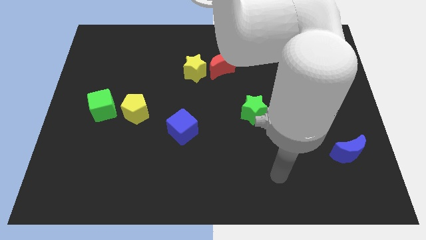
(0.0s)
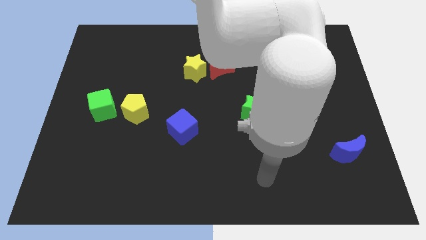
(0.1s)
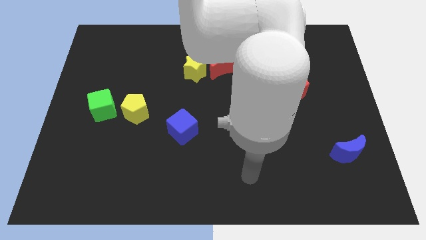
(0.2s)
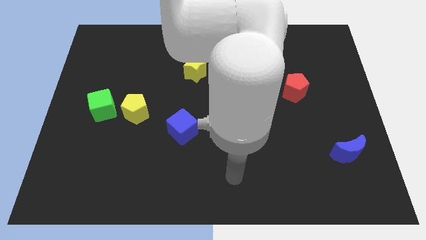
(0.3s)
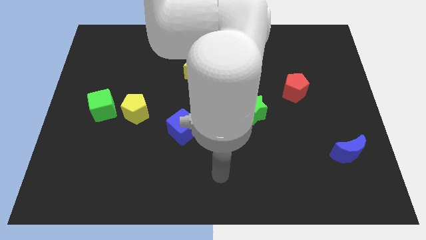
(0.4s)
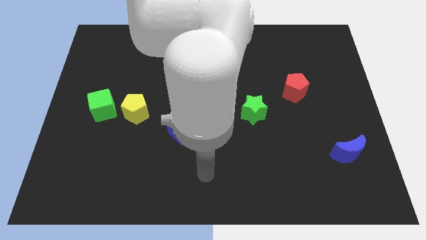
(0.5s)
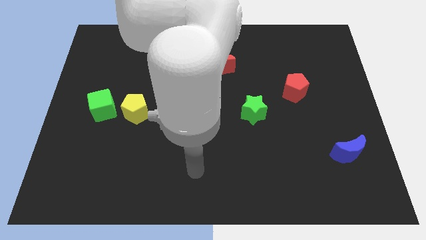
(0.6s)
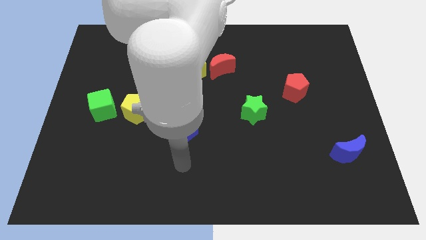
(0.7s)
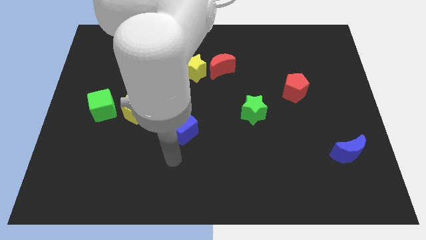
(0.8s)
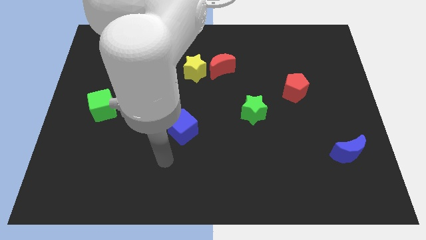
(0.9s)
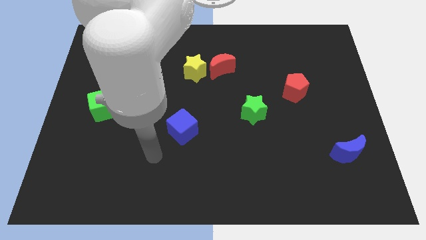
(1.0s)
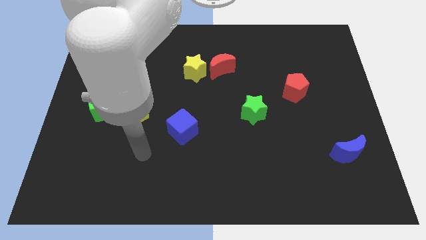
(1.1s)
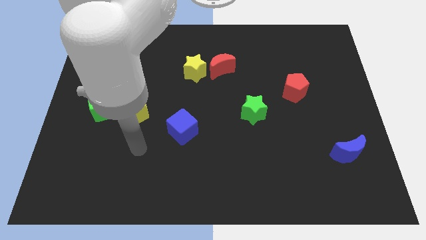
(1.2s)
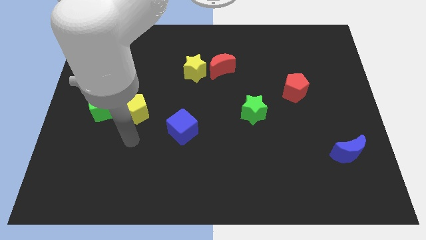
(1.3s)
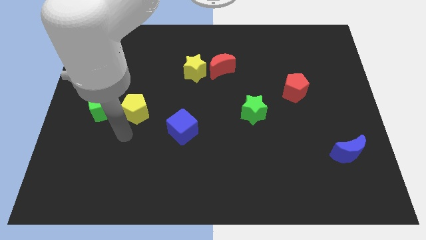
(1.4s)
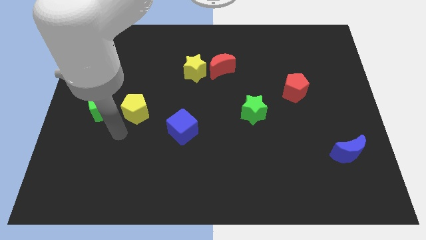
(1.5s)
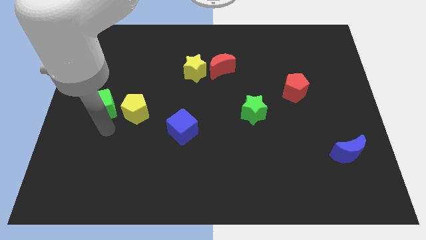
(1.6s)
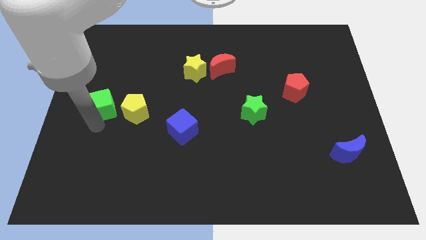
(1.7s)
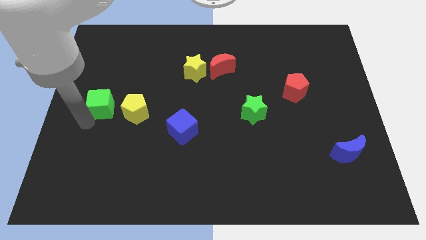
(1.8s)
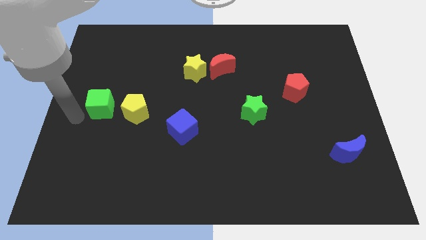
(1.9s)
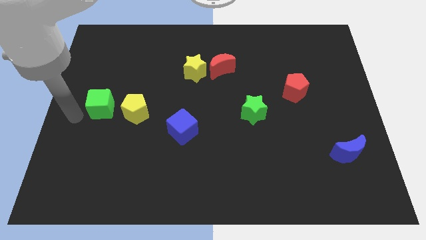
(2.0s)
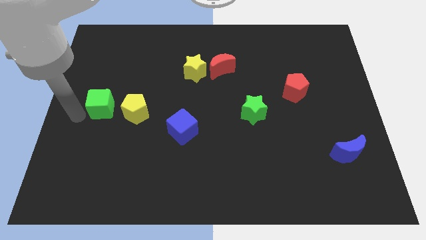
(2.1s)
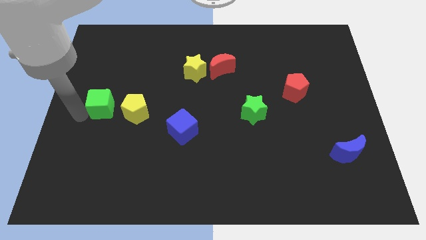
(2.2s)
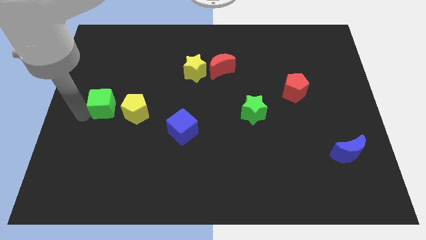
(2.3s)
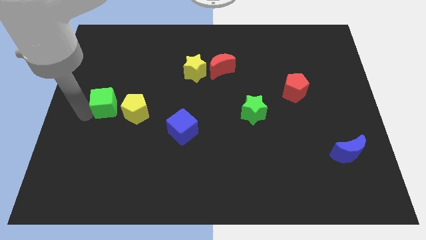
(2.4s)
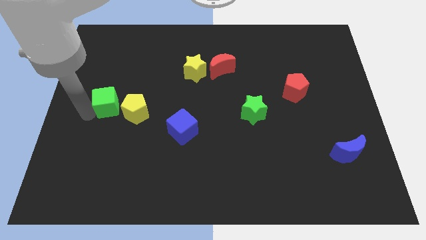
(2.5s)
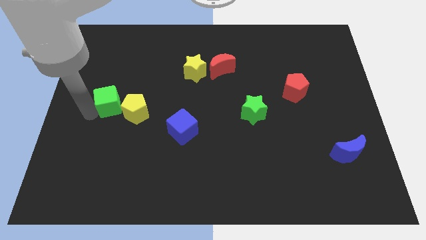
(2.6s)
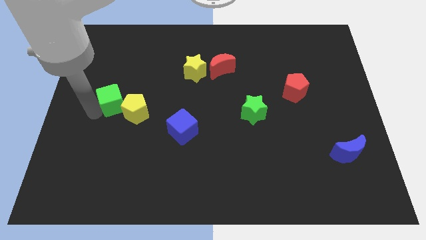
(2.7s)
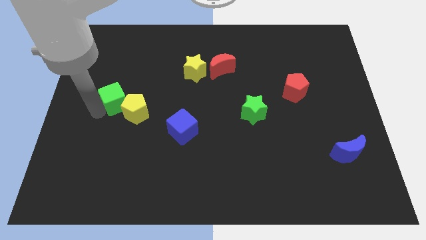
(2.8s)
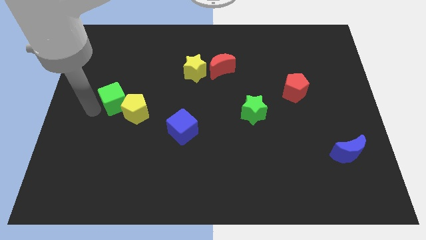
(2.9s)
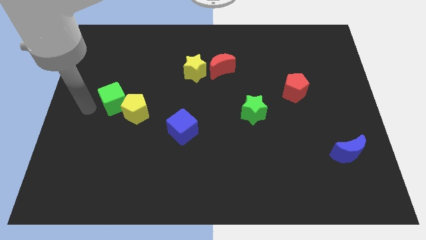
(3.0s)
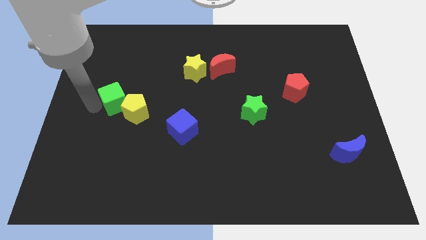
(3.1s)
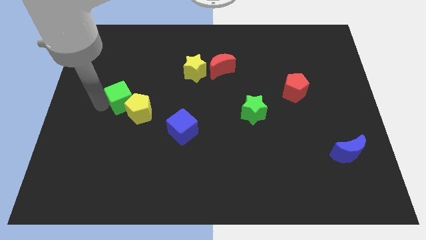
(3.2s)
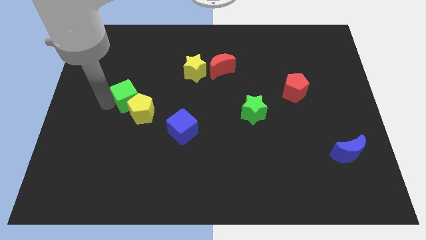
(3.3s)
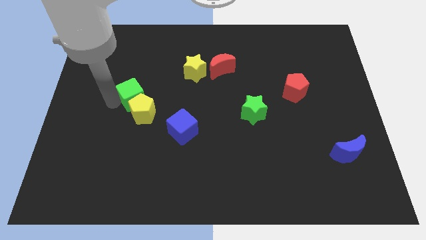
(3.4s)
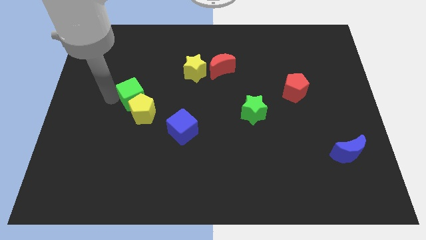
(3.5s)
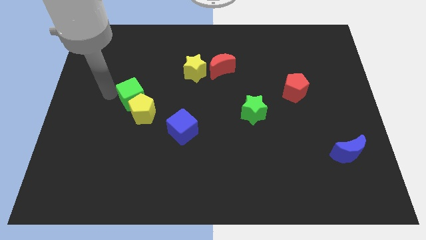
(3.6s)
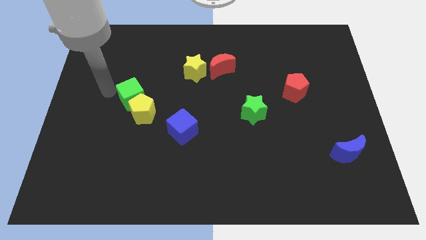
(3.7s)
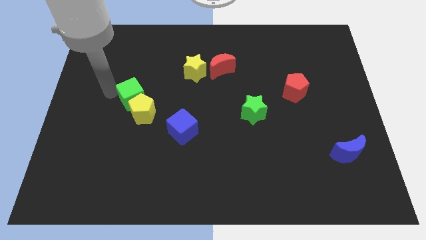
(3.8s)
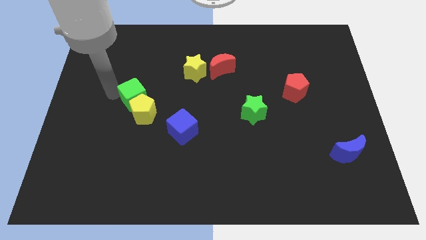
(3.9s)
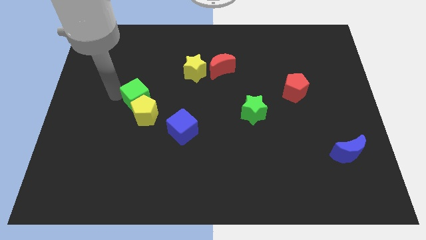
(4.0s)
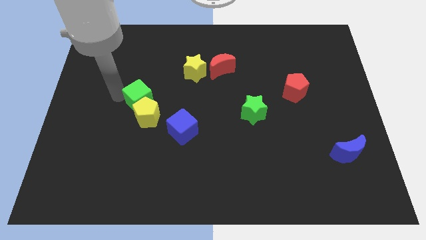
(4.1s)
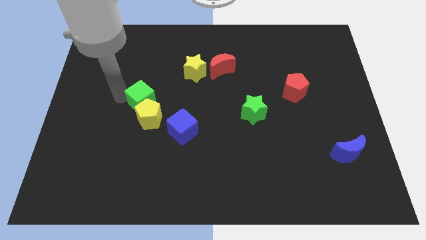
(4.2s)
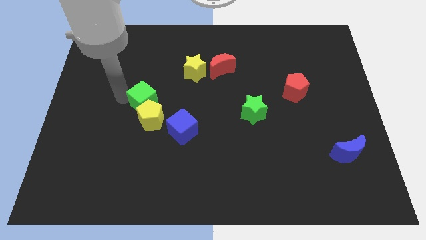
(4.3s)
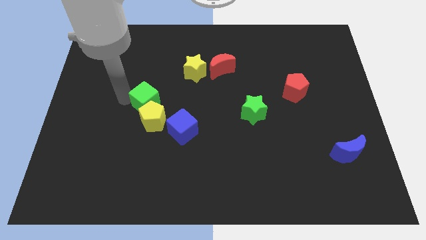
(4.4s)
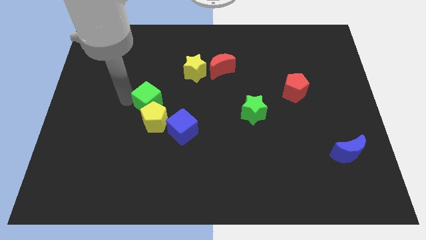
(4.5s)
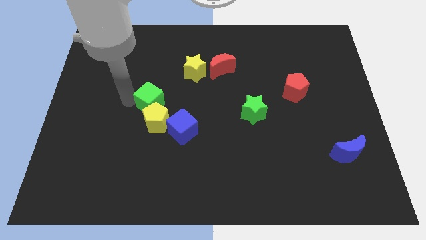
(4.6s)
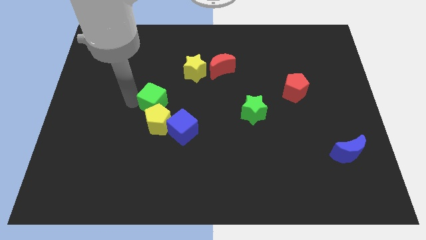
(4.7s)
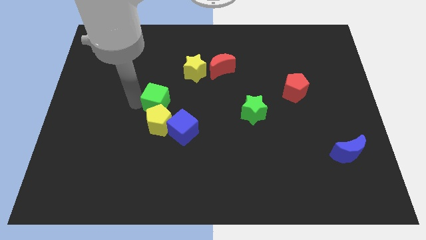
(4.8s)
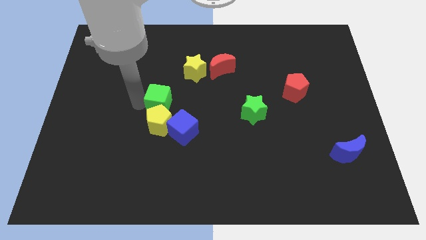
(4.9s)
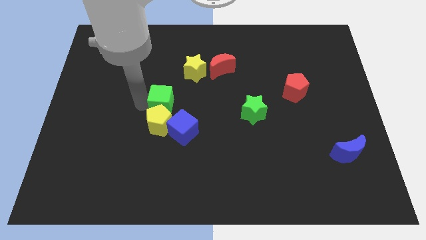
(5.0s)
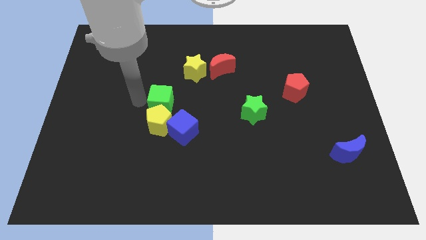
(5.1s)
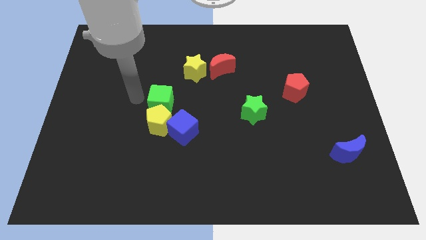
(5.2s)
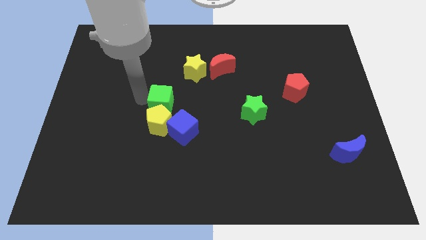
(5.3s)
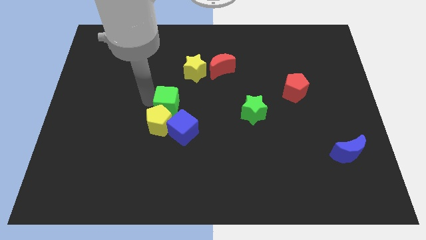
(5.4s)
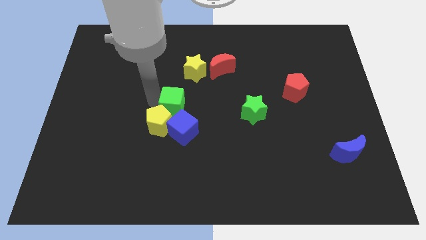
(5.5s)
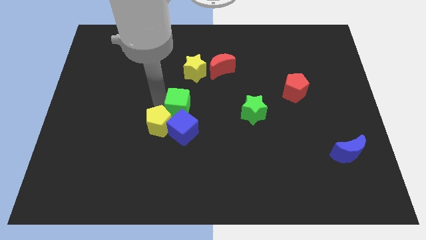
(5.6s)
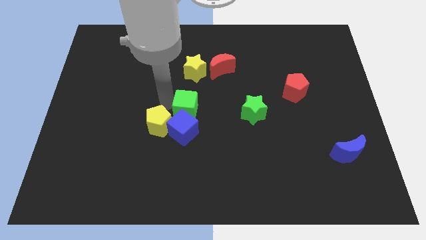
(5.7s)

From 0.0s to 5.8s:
slide the green cube to the top right of the blue cube

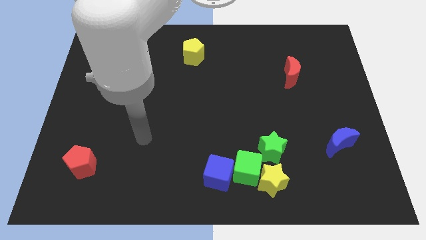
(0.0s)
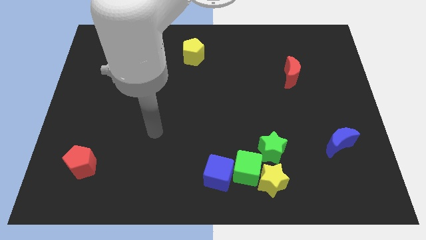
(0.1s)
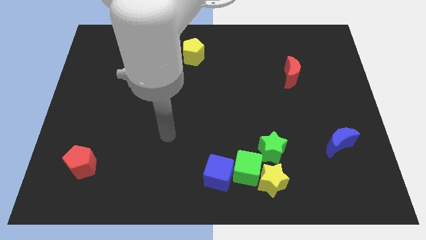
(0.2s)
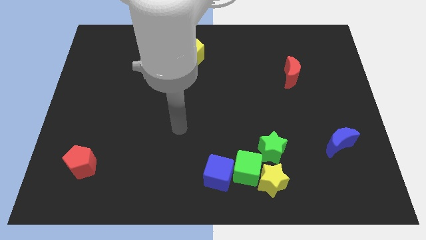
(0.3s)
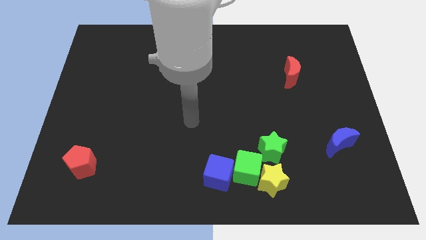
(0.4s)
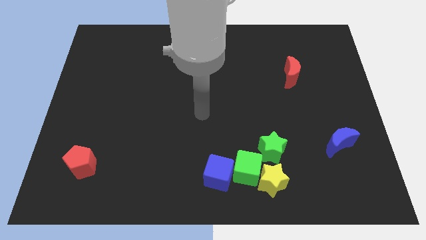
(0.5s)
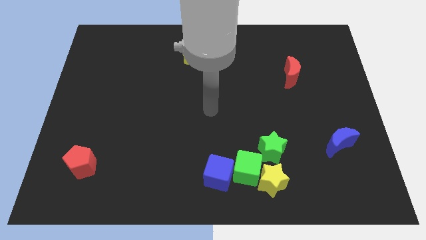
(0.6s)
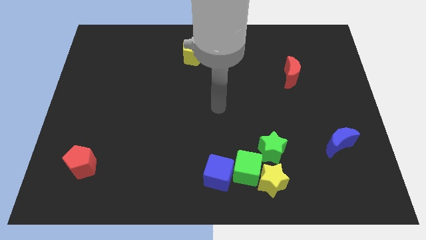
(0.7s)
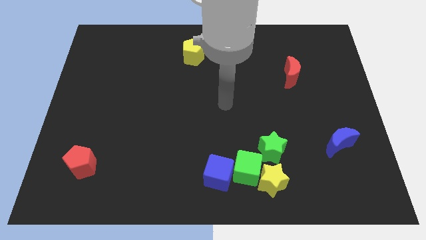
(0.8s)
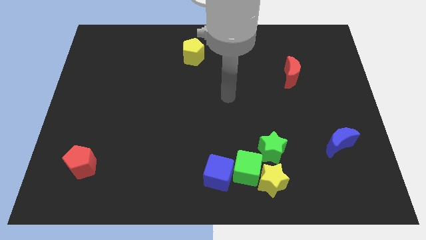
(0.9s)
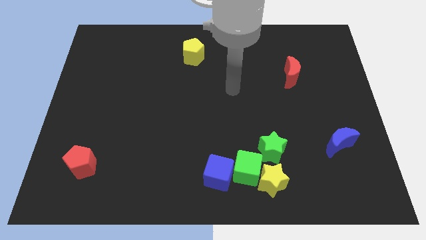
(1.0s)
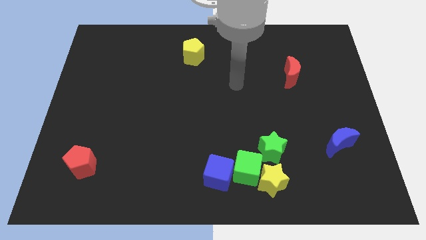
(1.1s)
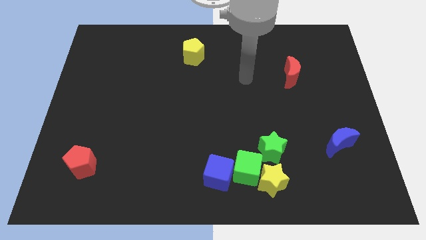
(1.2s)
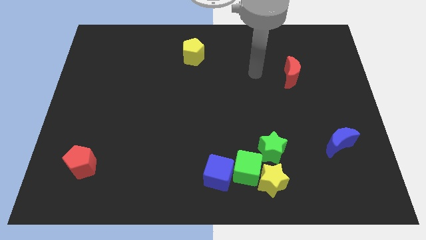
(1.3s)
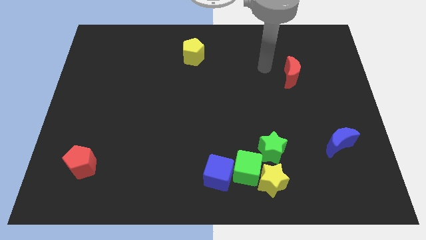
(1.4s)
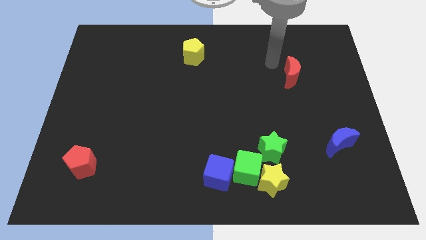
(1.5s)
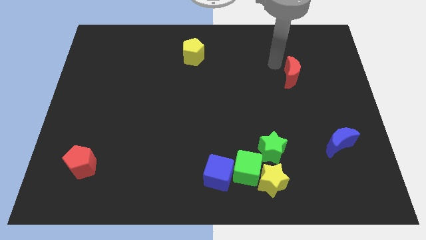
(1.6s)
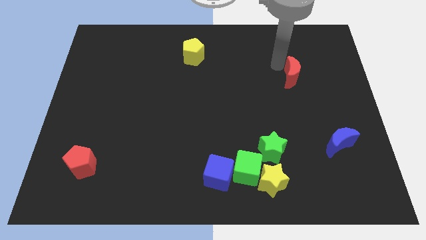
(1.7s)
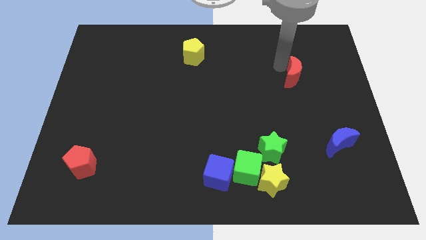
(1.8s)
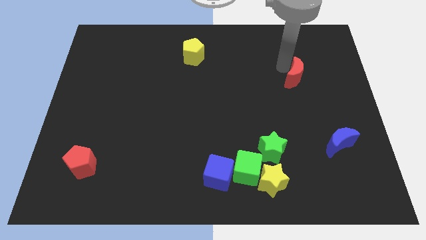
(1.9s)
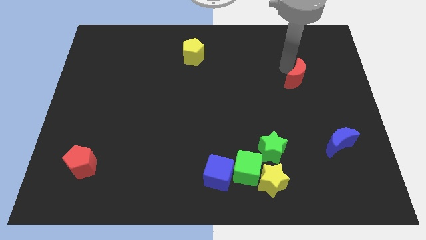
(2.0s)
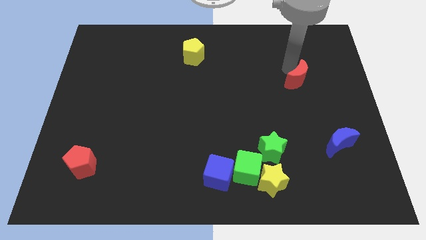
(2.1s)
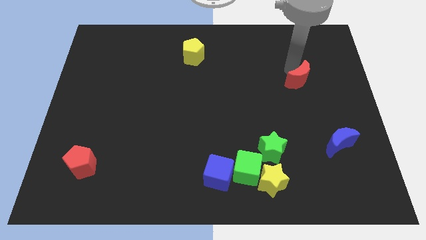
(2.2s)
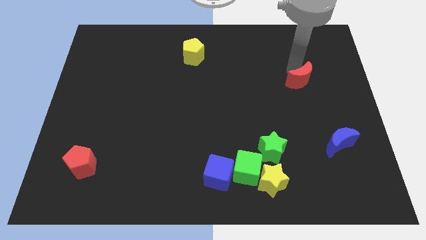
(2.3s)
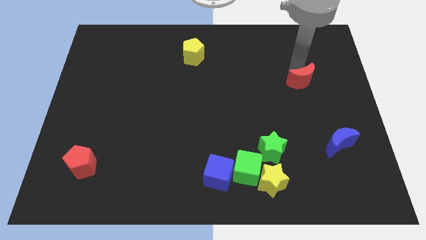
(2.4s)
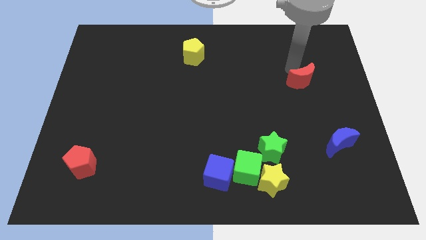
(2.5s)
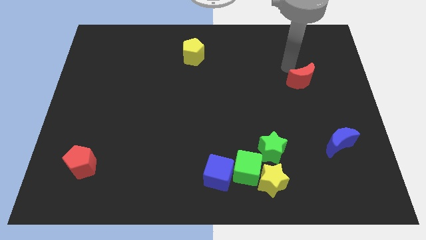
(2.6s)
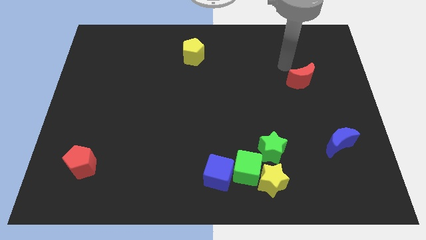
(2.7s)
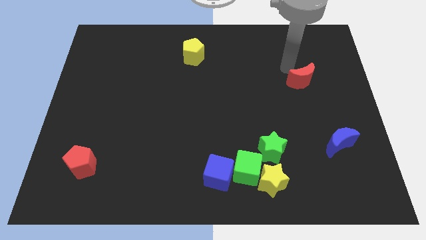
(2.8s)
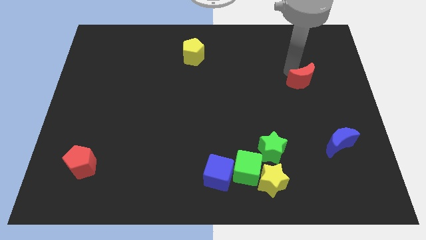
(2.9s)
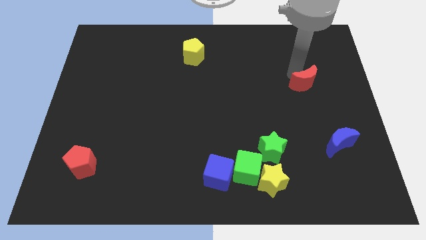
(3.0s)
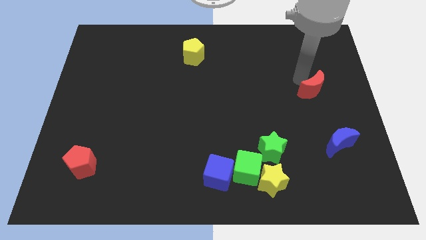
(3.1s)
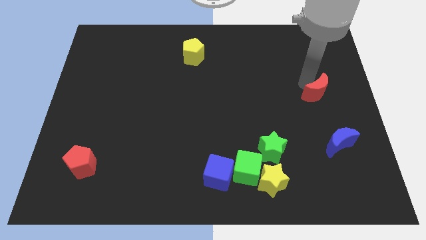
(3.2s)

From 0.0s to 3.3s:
put the red moon above the blue moon
